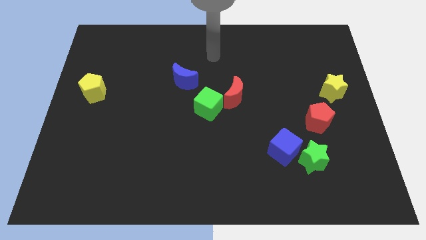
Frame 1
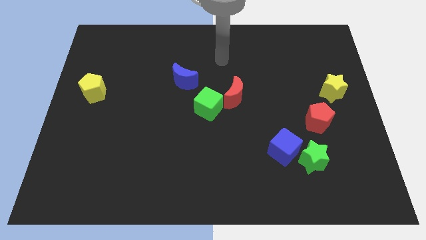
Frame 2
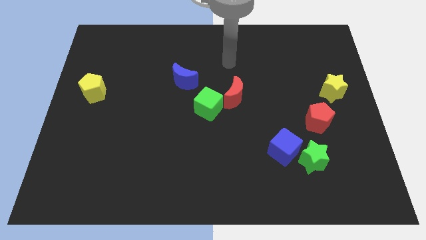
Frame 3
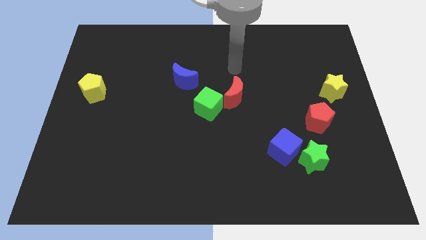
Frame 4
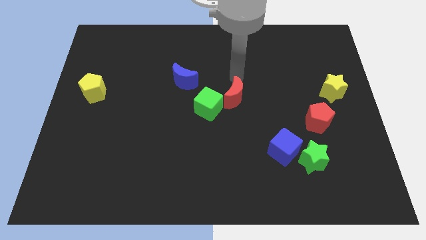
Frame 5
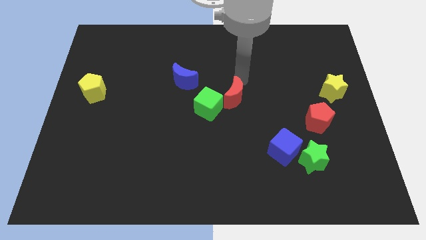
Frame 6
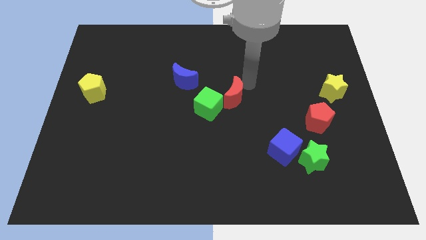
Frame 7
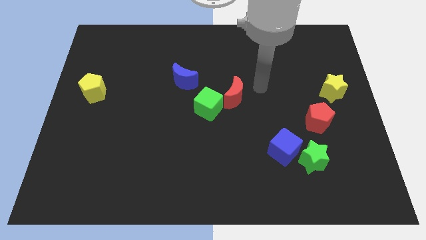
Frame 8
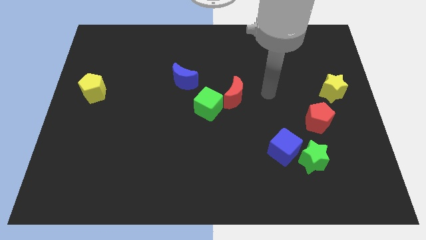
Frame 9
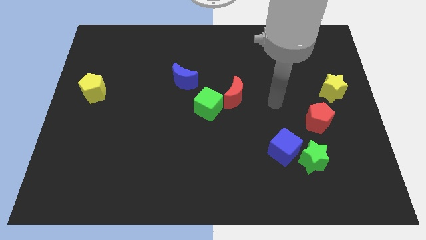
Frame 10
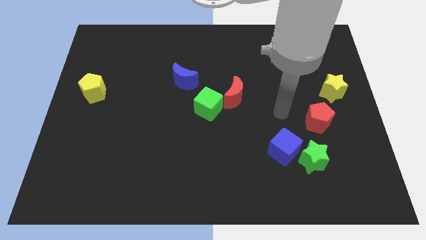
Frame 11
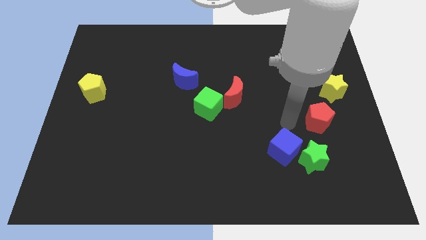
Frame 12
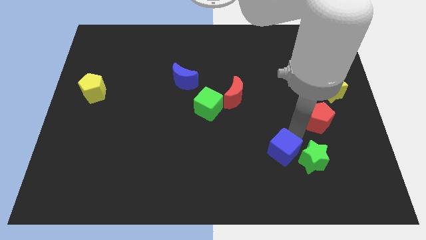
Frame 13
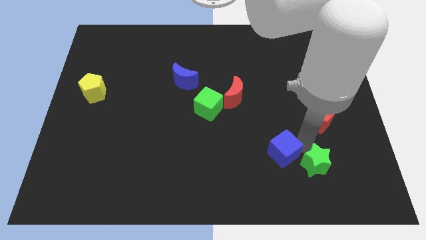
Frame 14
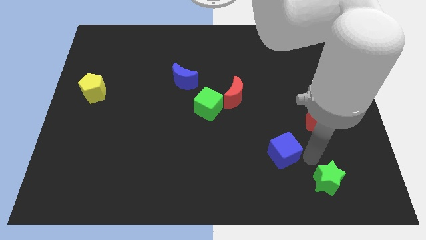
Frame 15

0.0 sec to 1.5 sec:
pull the blue cube apart from the green star

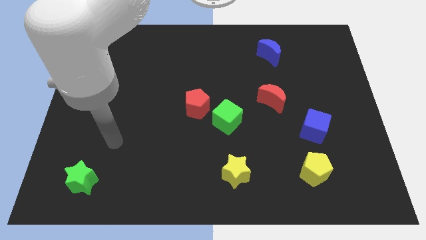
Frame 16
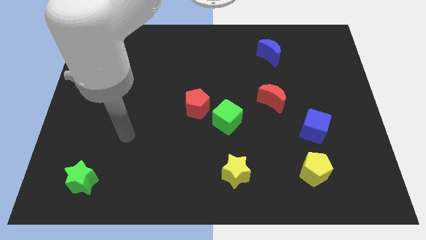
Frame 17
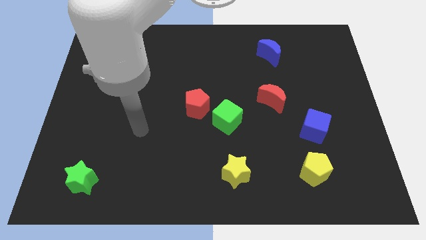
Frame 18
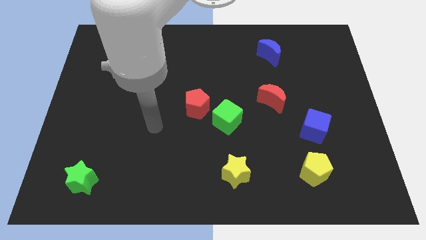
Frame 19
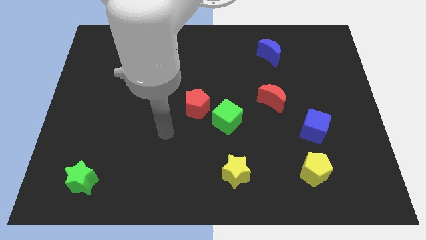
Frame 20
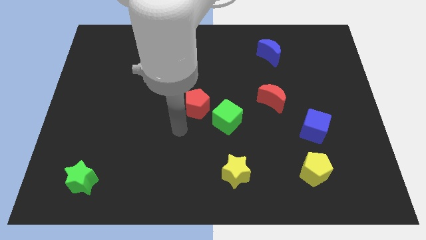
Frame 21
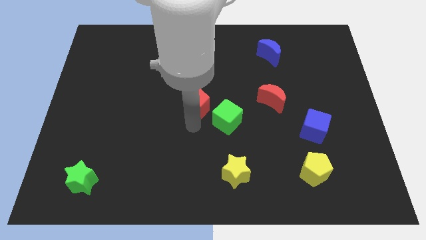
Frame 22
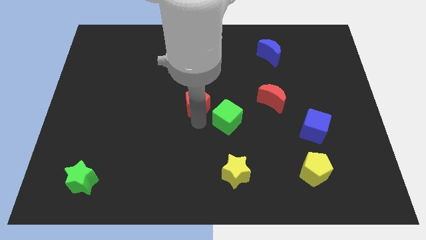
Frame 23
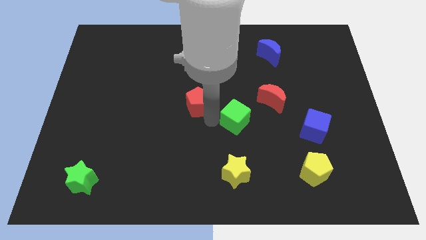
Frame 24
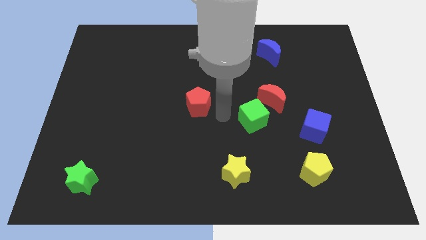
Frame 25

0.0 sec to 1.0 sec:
pull the red pentagon apart from the green cube

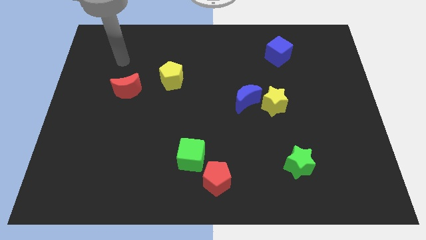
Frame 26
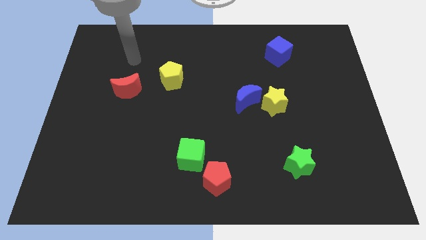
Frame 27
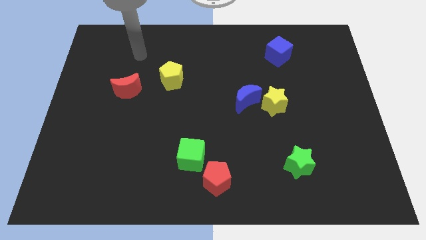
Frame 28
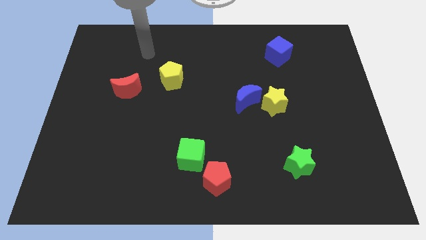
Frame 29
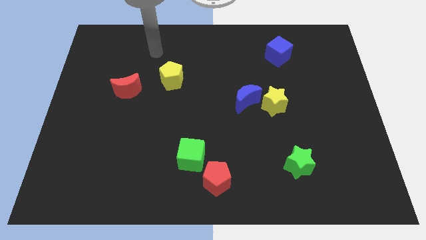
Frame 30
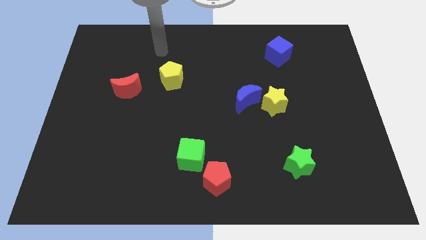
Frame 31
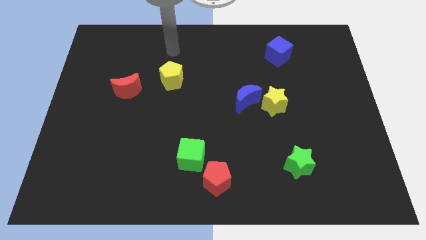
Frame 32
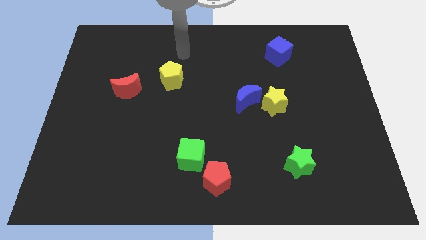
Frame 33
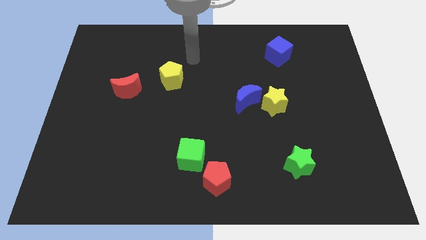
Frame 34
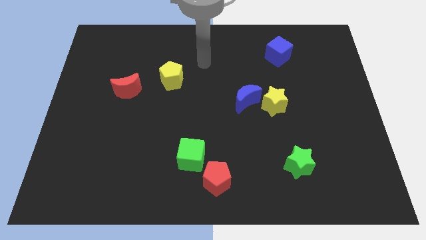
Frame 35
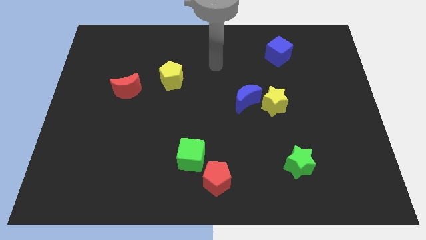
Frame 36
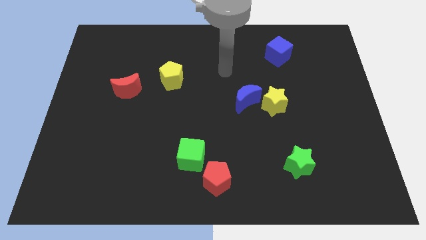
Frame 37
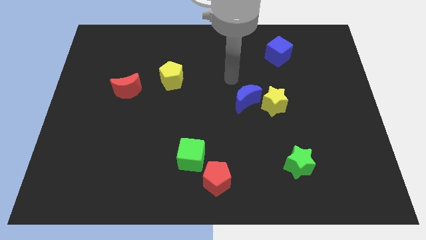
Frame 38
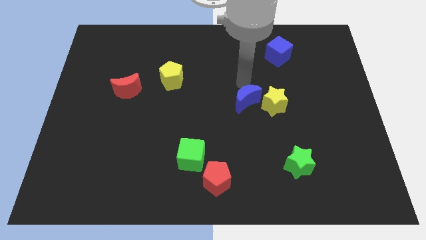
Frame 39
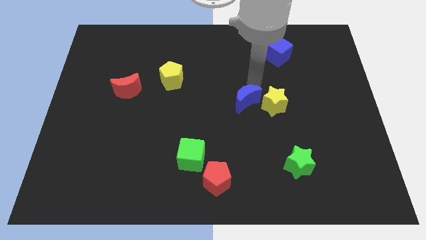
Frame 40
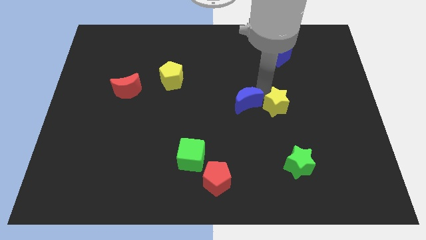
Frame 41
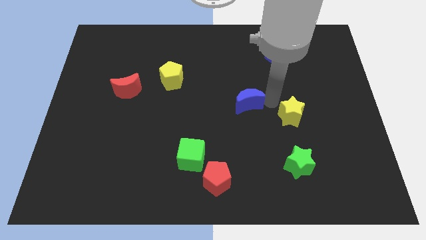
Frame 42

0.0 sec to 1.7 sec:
separate the blue moon from the yellow star

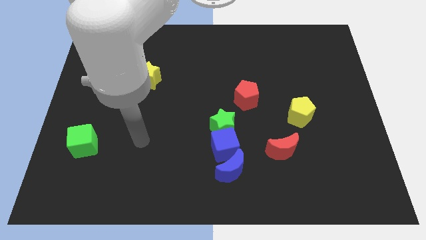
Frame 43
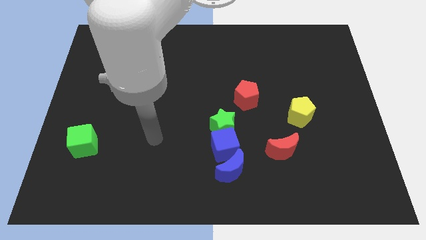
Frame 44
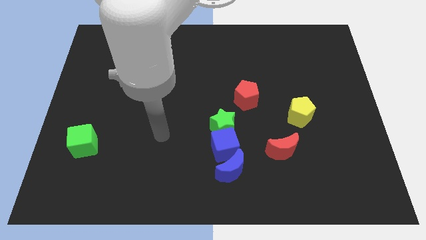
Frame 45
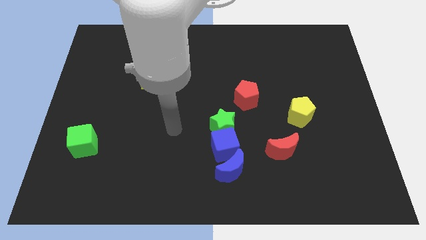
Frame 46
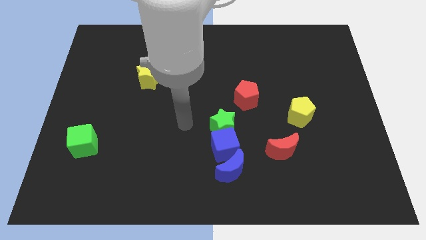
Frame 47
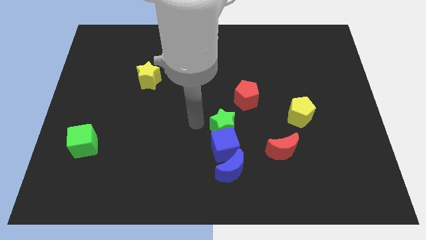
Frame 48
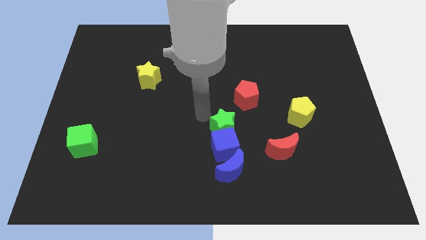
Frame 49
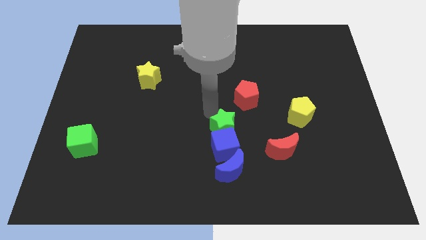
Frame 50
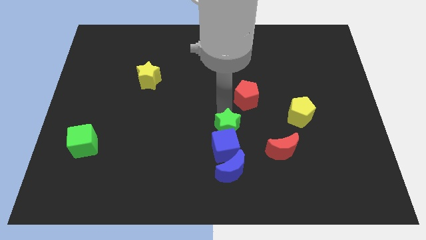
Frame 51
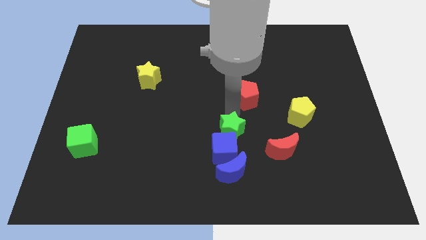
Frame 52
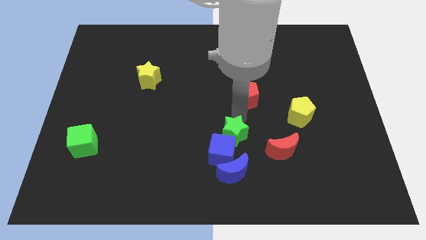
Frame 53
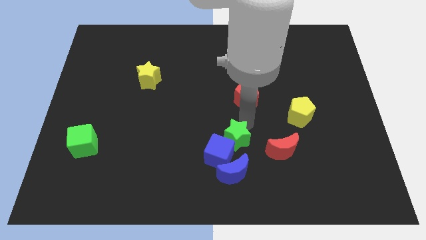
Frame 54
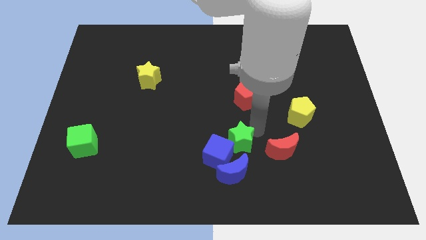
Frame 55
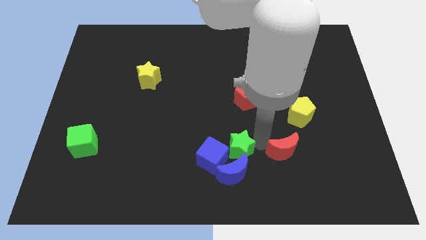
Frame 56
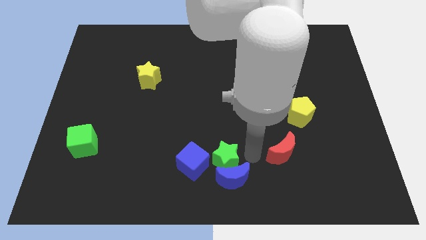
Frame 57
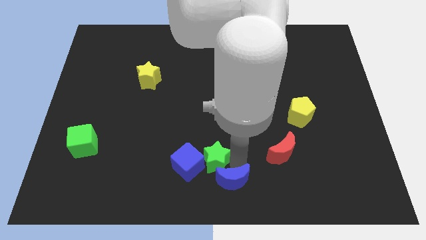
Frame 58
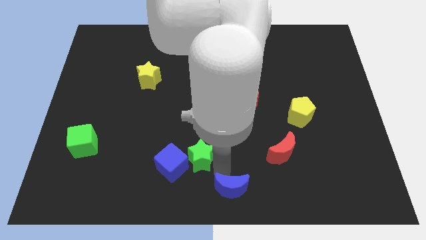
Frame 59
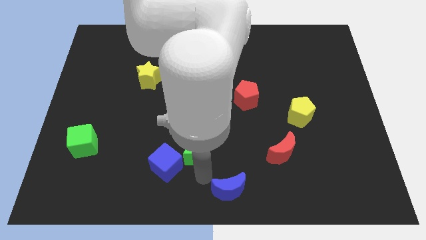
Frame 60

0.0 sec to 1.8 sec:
move the blue cube away from the green star and blue moon

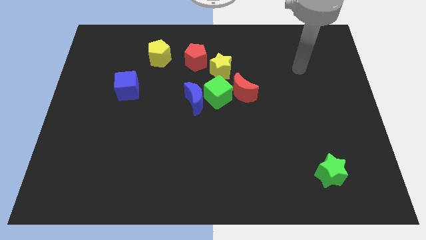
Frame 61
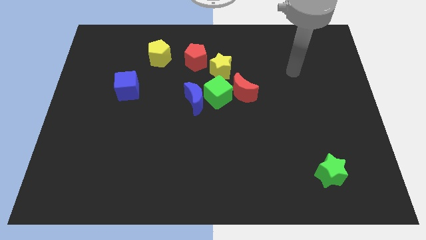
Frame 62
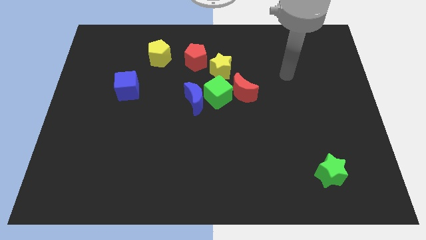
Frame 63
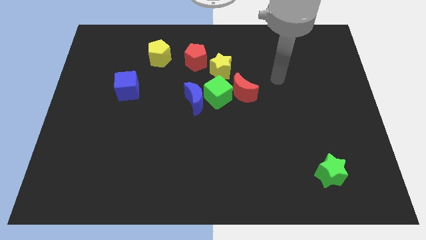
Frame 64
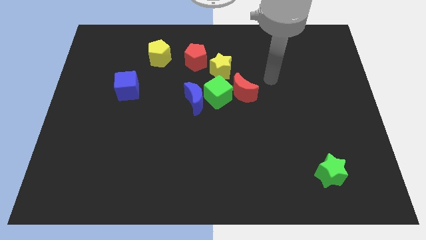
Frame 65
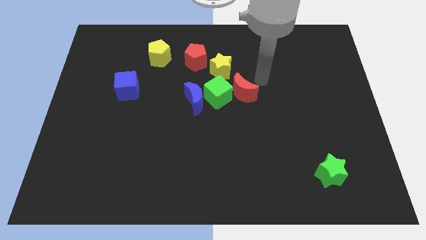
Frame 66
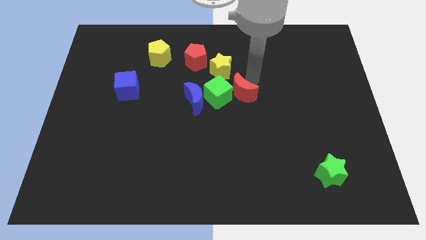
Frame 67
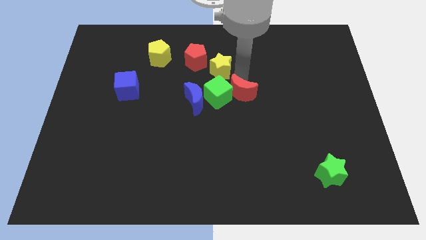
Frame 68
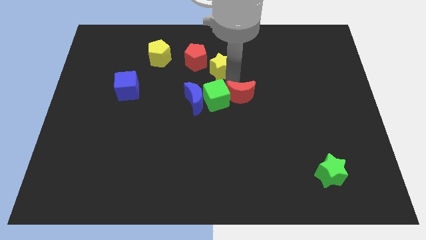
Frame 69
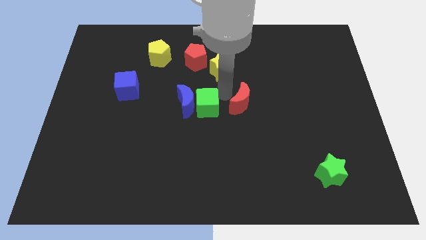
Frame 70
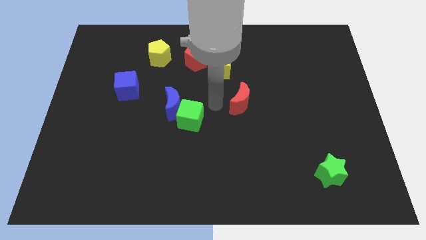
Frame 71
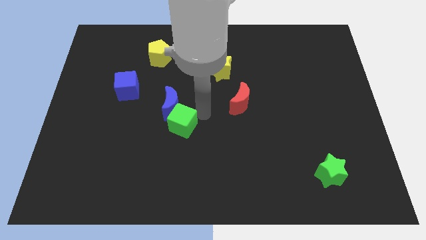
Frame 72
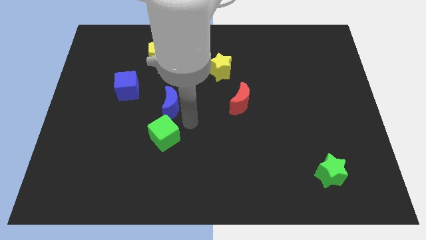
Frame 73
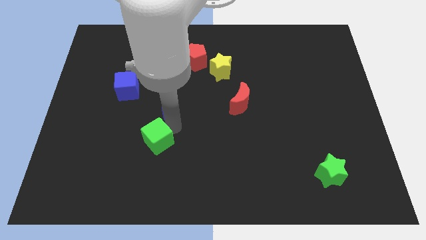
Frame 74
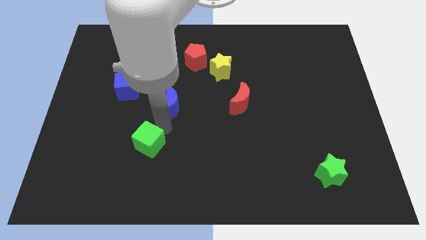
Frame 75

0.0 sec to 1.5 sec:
separate the blue moon from the green cube

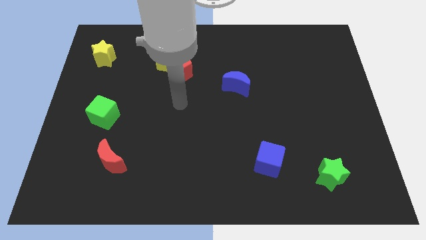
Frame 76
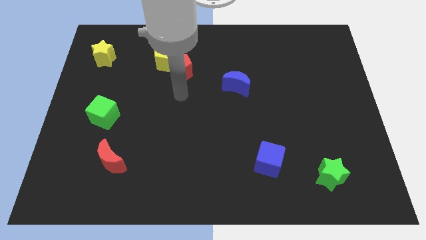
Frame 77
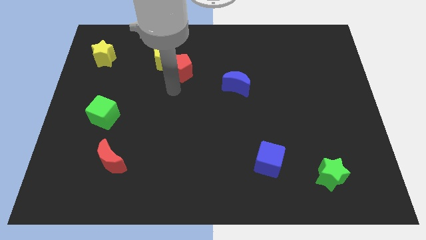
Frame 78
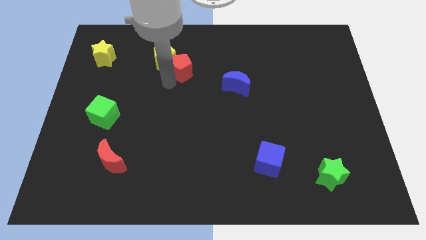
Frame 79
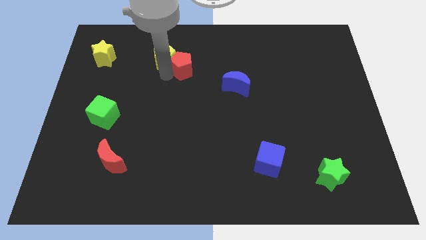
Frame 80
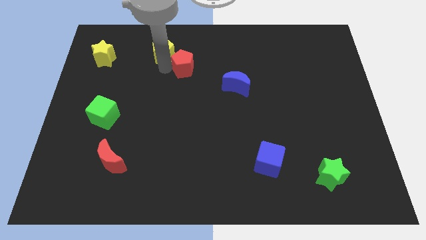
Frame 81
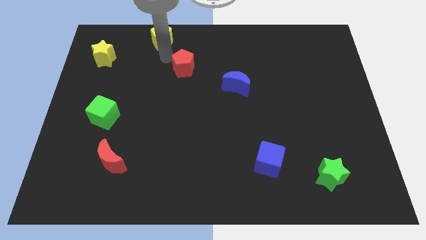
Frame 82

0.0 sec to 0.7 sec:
separate the red pentagon from the yellow pentagon

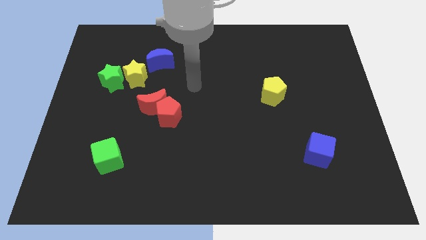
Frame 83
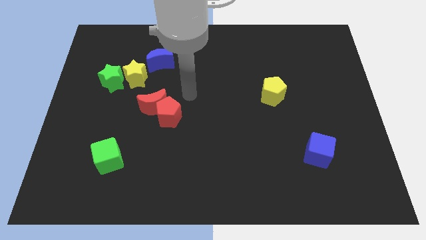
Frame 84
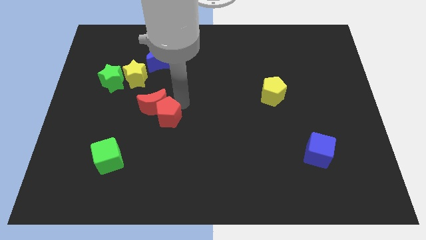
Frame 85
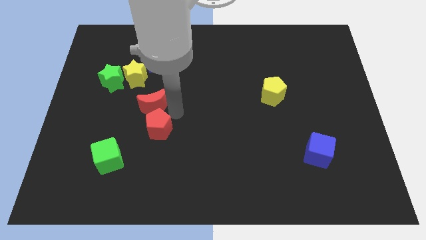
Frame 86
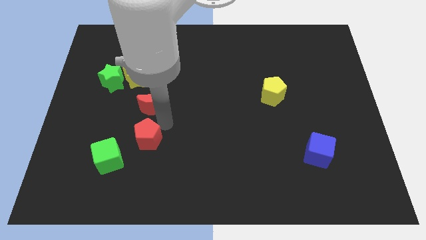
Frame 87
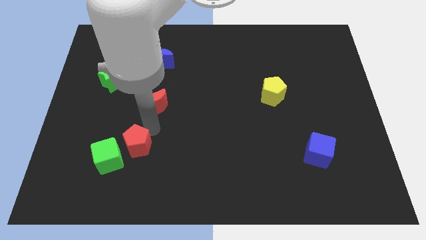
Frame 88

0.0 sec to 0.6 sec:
move the red moon away from the red pentagon

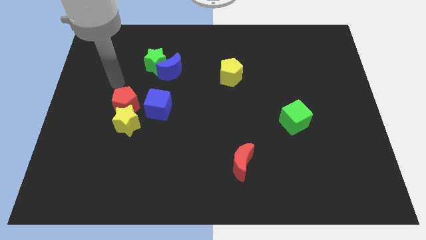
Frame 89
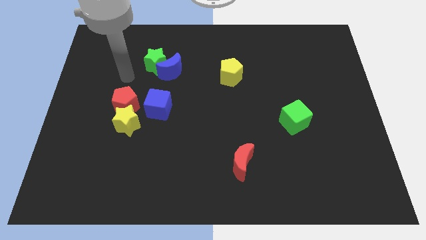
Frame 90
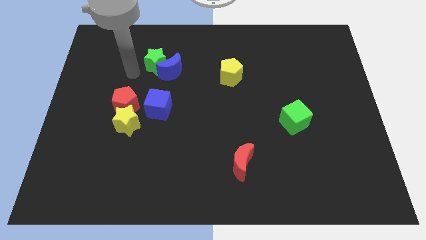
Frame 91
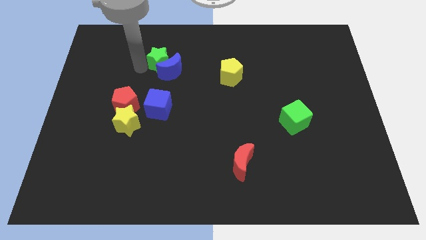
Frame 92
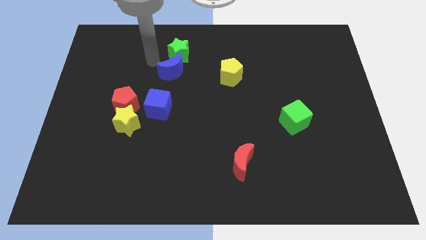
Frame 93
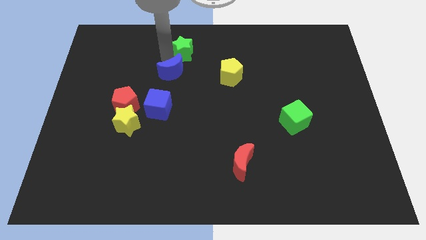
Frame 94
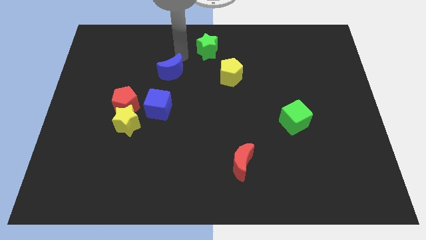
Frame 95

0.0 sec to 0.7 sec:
move the blue moon away from the green star
